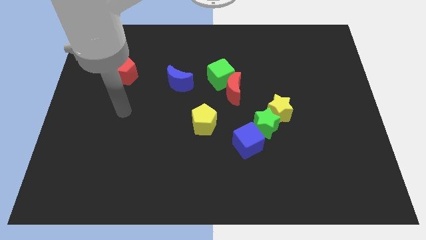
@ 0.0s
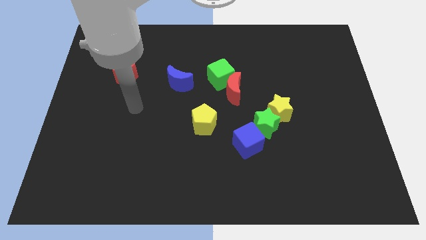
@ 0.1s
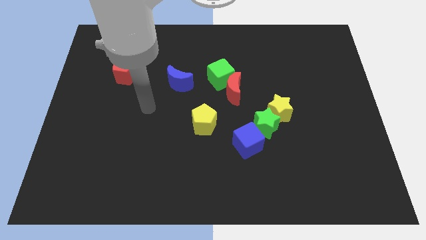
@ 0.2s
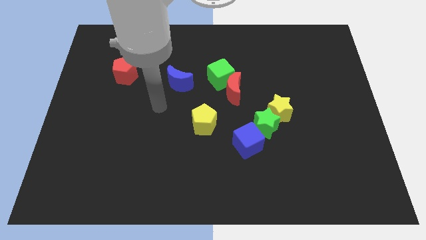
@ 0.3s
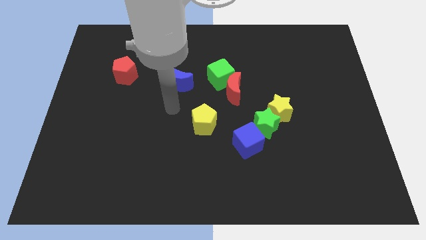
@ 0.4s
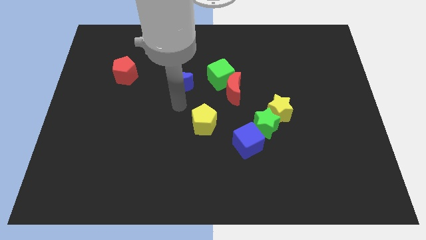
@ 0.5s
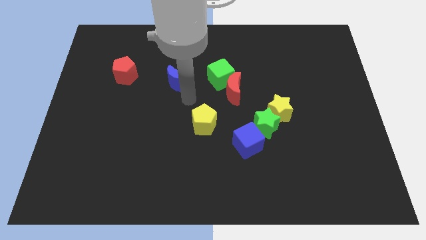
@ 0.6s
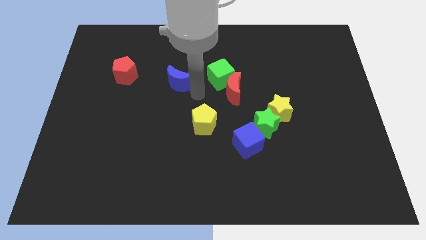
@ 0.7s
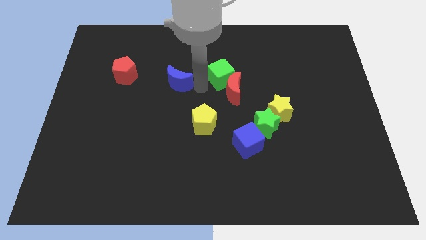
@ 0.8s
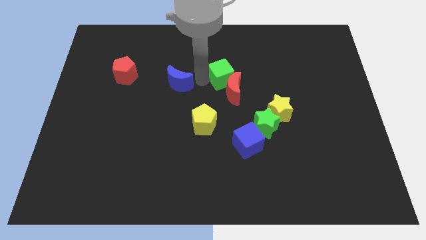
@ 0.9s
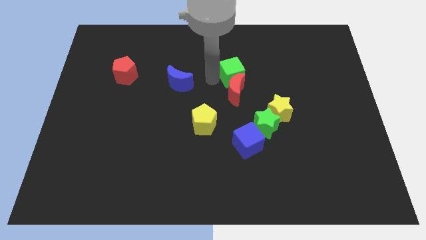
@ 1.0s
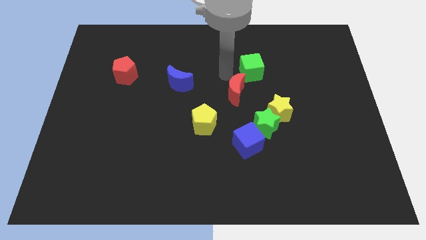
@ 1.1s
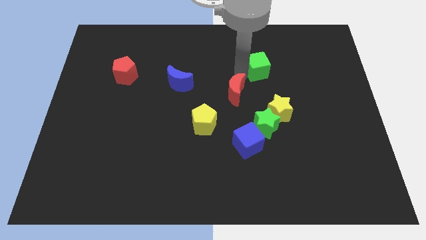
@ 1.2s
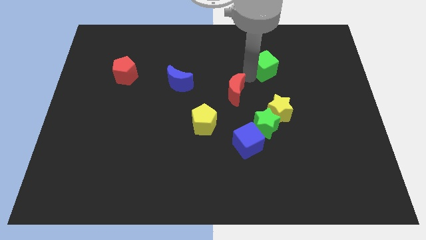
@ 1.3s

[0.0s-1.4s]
move the red moon away from the green cube

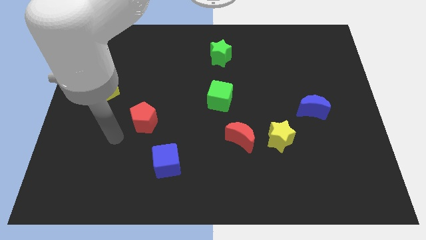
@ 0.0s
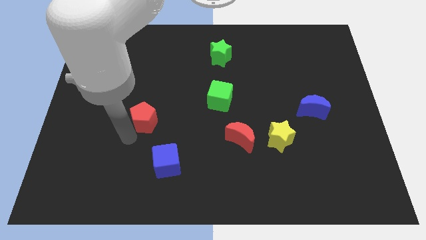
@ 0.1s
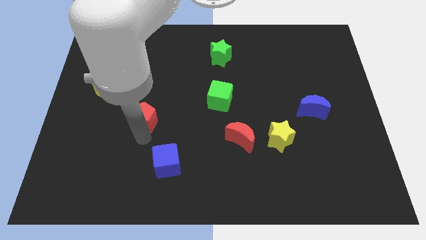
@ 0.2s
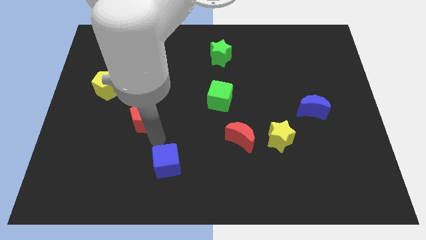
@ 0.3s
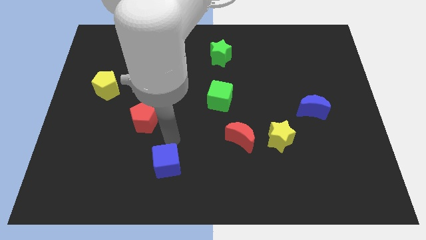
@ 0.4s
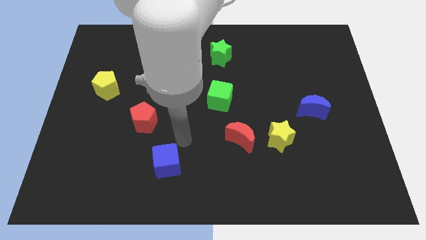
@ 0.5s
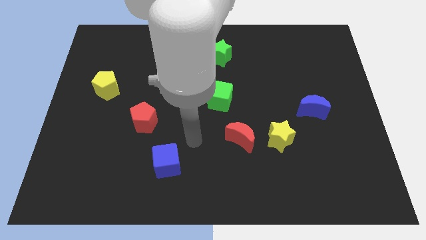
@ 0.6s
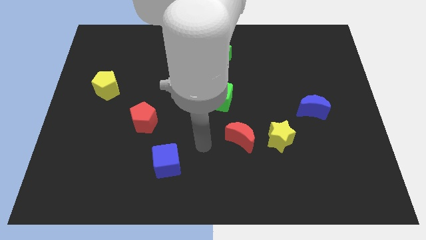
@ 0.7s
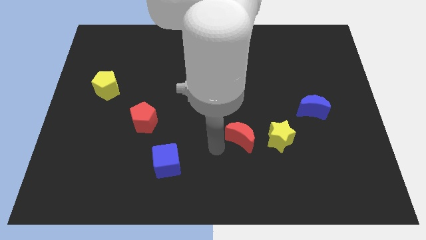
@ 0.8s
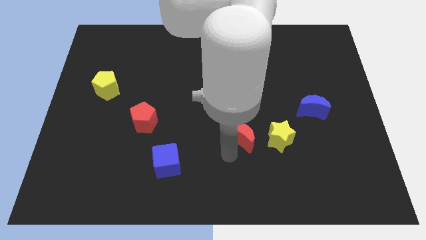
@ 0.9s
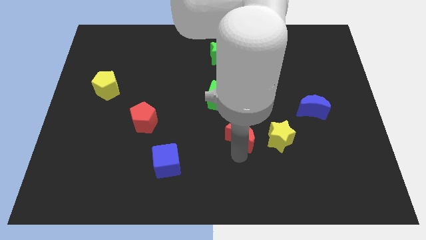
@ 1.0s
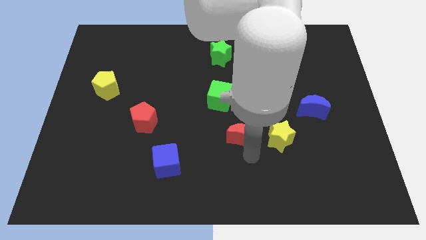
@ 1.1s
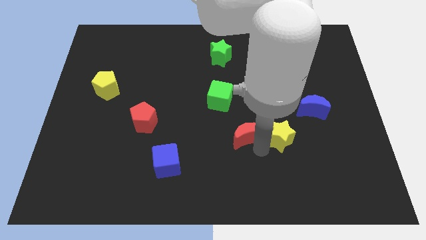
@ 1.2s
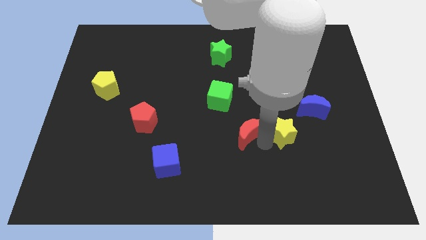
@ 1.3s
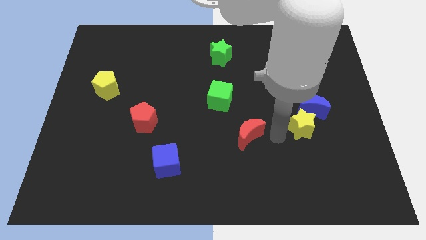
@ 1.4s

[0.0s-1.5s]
pull the red moon apart from the yellow star

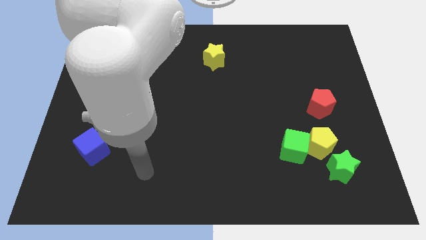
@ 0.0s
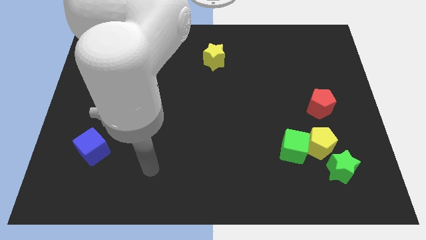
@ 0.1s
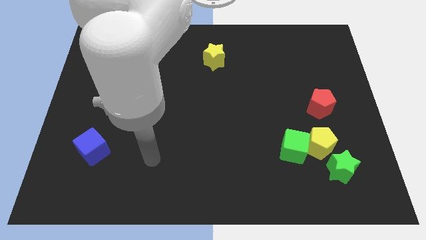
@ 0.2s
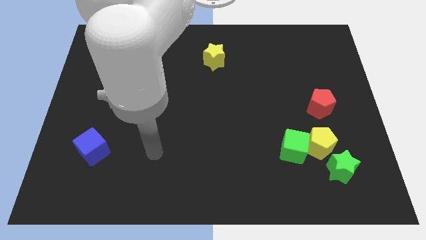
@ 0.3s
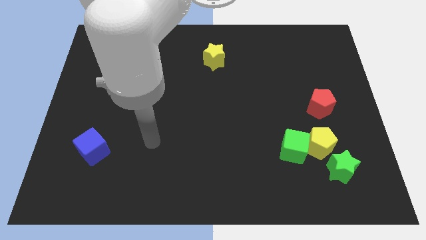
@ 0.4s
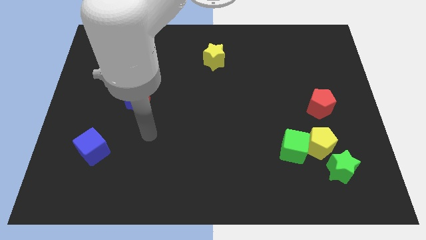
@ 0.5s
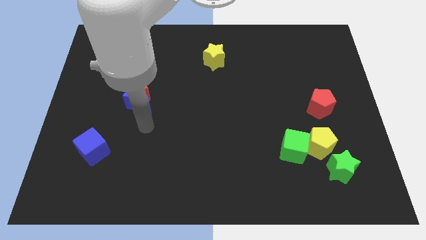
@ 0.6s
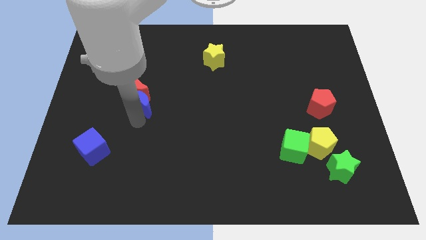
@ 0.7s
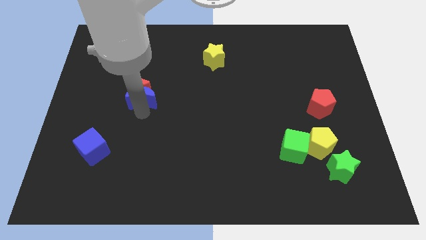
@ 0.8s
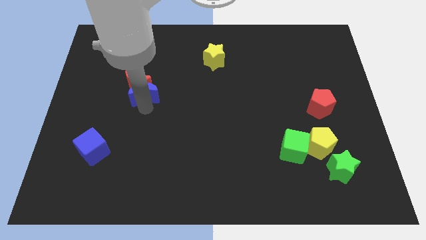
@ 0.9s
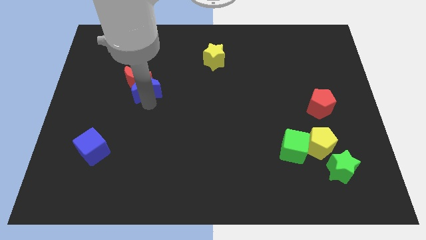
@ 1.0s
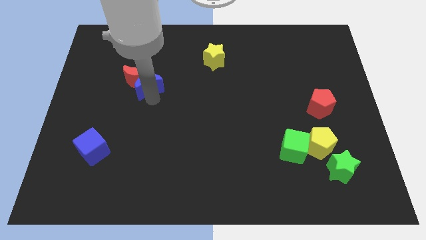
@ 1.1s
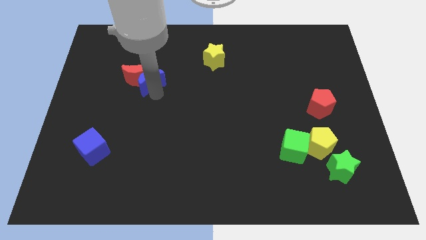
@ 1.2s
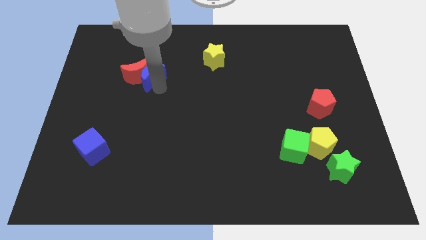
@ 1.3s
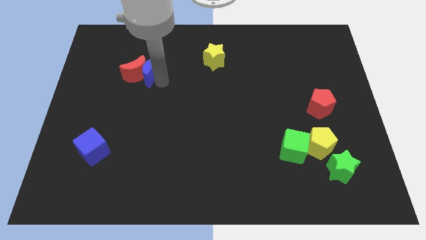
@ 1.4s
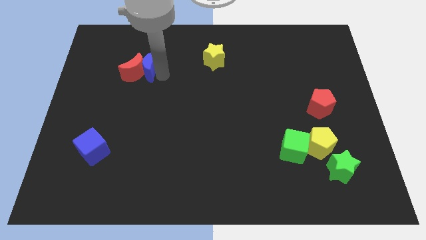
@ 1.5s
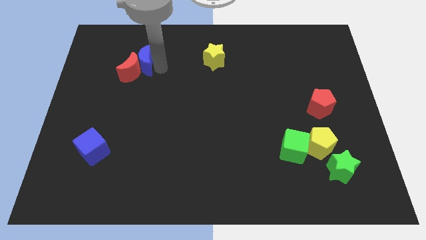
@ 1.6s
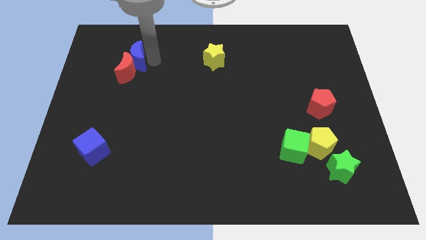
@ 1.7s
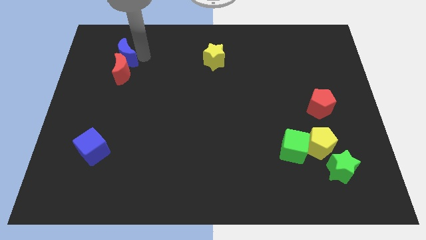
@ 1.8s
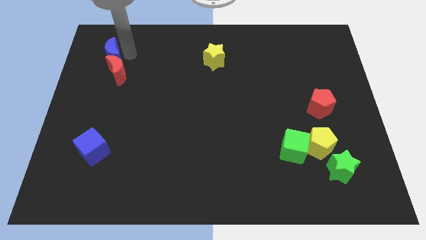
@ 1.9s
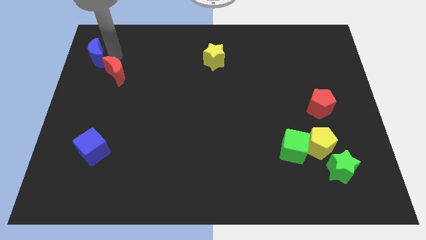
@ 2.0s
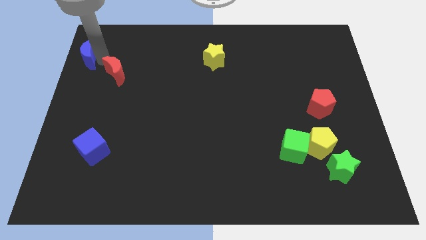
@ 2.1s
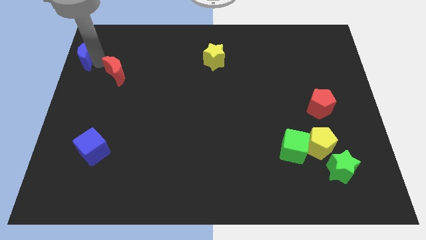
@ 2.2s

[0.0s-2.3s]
separate the red moon from the blue moon

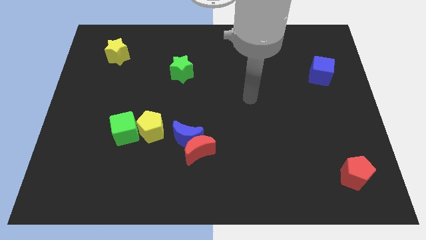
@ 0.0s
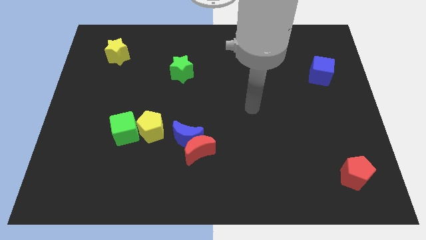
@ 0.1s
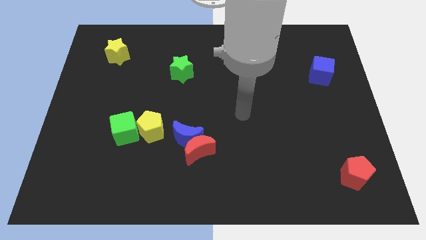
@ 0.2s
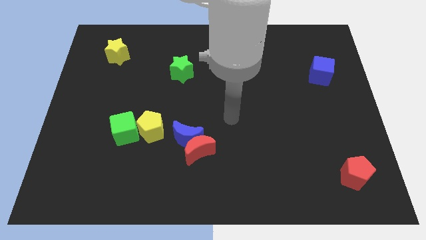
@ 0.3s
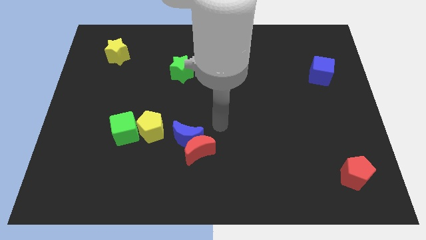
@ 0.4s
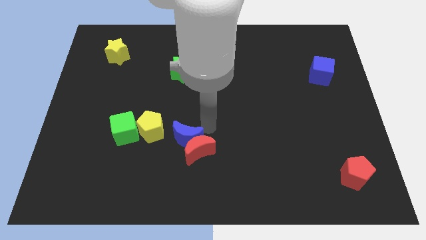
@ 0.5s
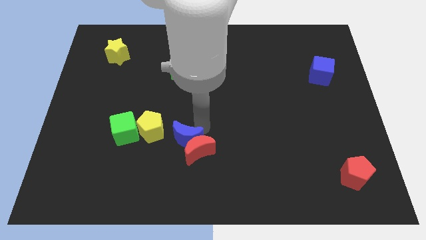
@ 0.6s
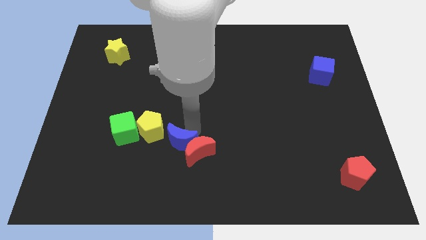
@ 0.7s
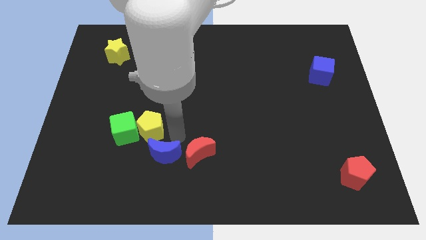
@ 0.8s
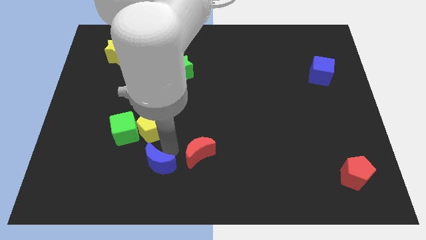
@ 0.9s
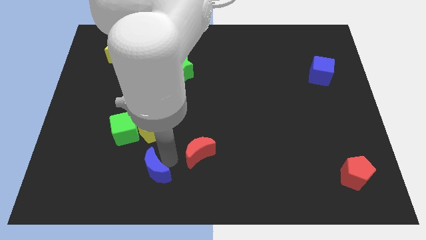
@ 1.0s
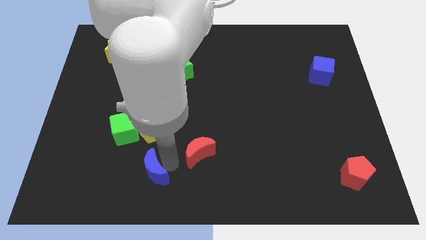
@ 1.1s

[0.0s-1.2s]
pull the red moon apart from the blue moon

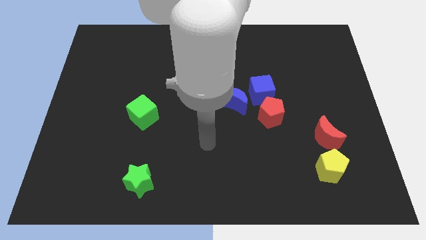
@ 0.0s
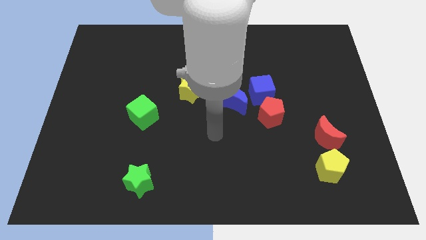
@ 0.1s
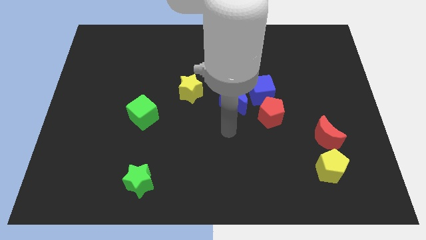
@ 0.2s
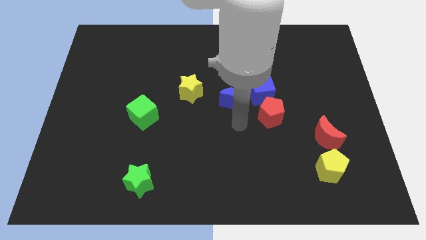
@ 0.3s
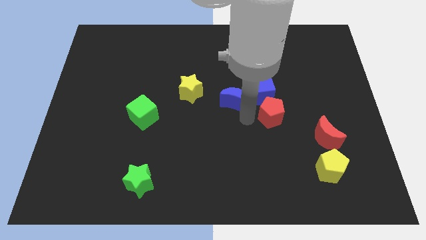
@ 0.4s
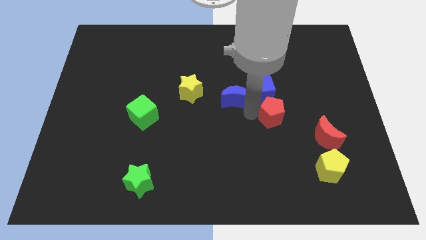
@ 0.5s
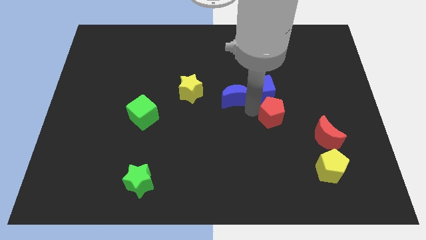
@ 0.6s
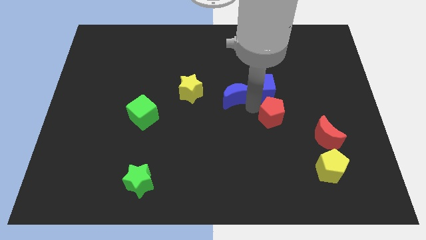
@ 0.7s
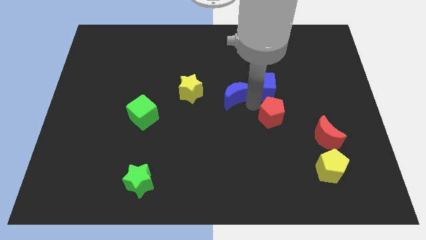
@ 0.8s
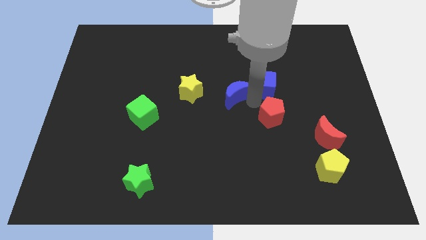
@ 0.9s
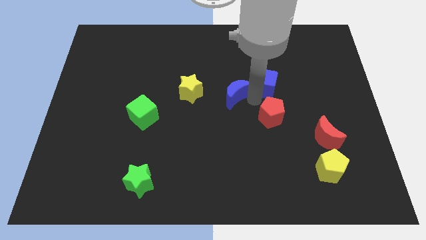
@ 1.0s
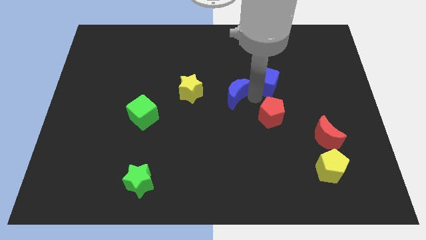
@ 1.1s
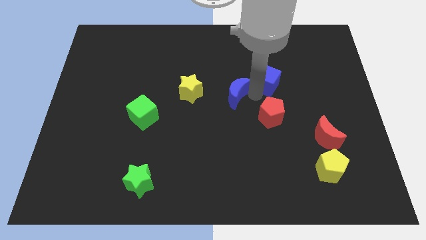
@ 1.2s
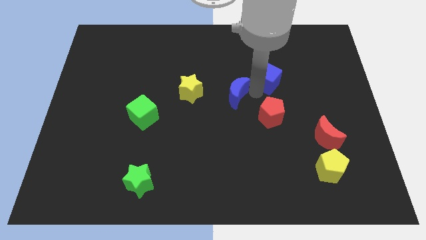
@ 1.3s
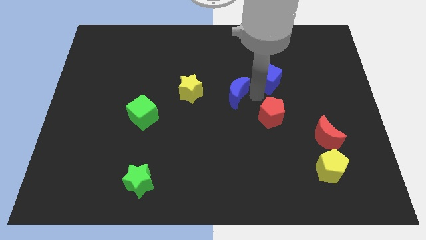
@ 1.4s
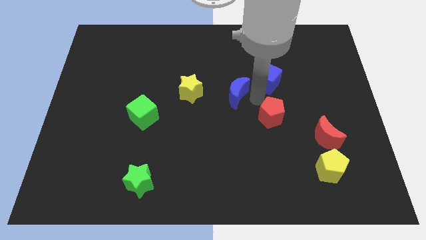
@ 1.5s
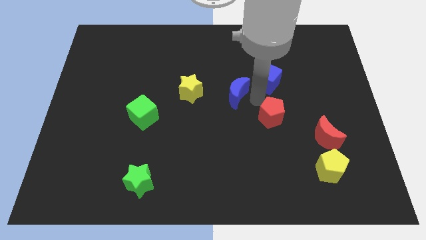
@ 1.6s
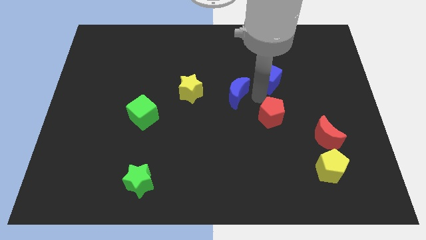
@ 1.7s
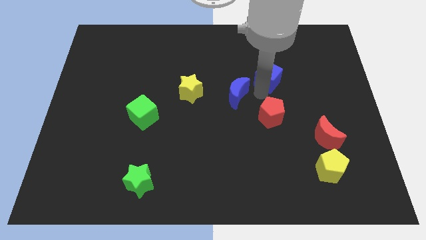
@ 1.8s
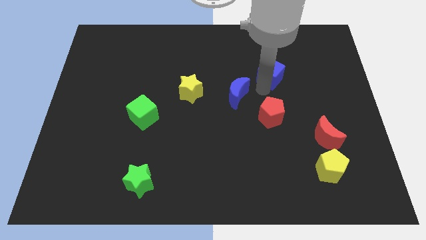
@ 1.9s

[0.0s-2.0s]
separate the blue cube from the red pentagon and blue moon

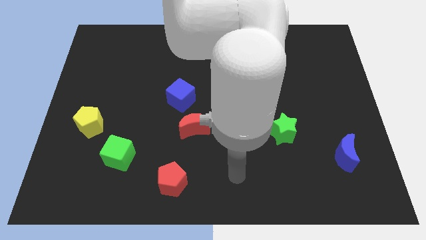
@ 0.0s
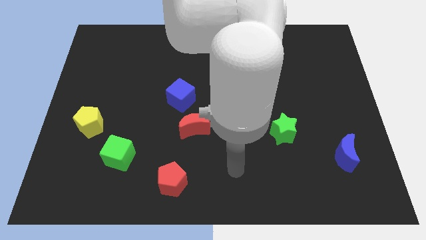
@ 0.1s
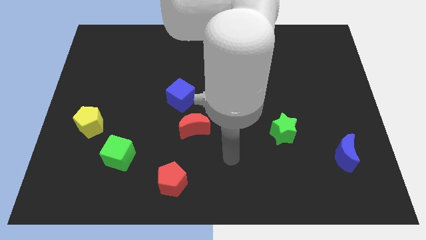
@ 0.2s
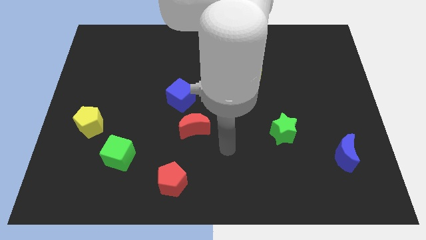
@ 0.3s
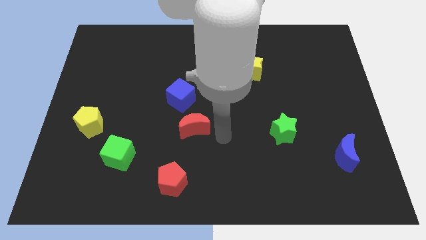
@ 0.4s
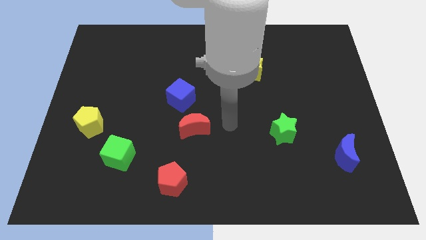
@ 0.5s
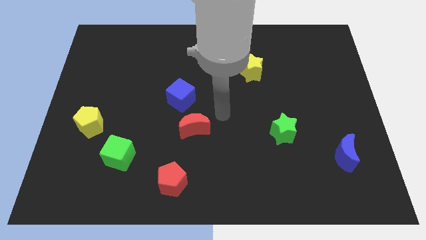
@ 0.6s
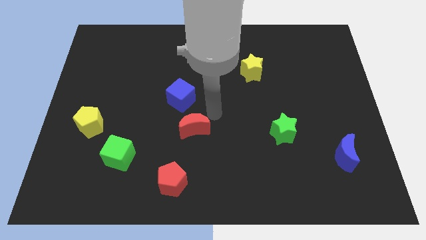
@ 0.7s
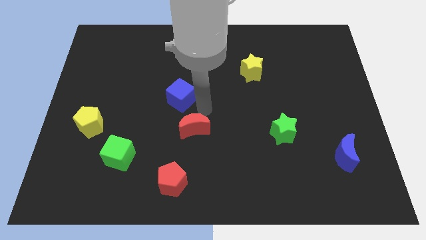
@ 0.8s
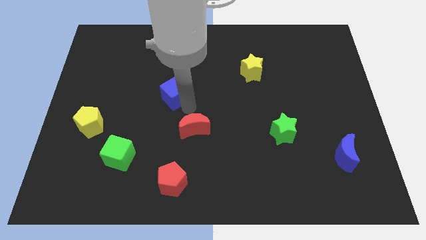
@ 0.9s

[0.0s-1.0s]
move the red moon away from the blue cube

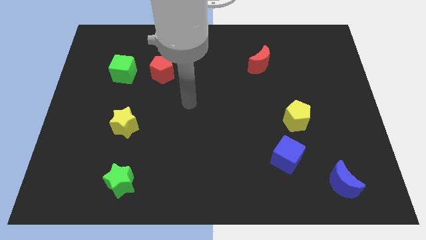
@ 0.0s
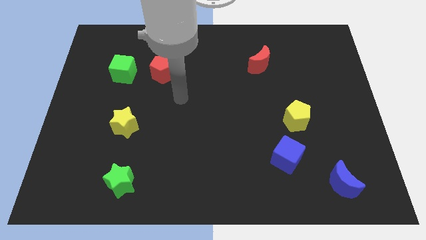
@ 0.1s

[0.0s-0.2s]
pull the red pentagon apart from the green cube
